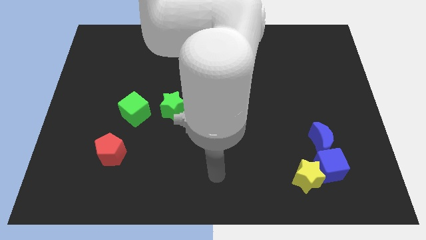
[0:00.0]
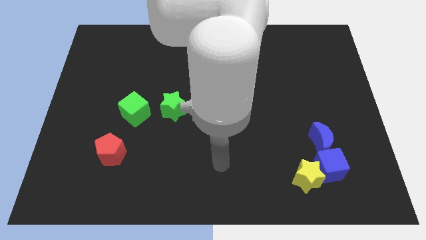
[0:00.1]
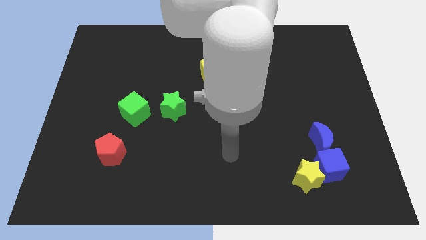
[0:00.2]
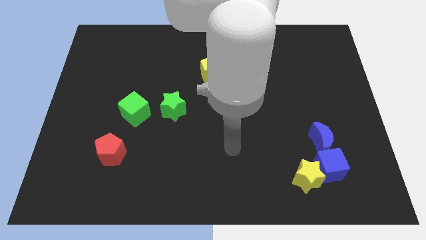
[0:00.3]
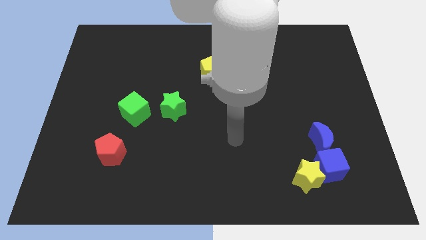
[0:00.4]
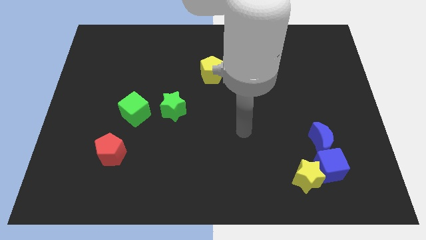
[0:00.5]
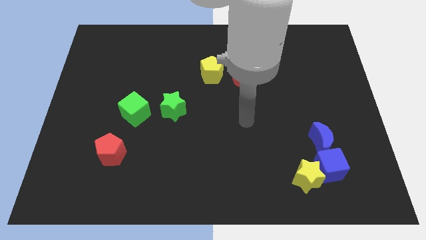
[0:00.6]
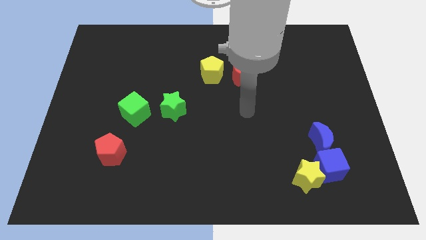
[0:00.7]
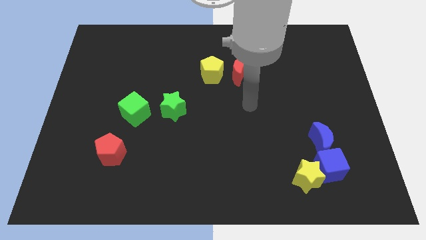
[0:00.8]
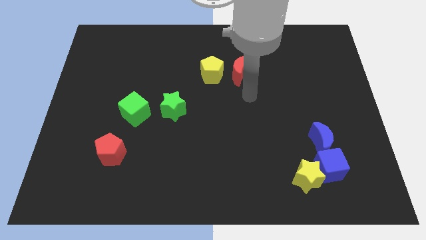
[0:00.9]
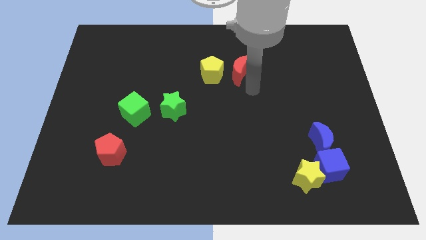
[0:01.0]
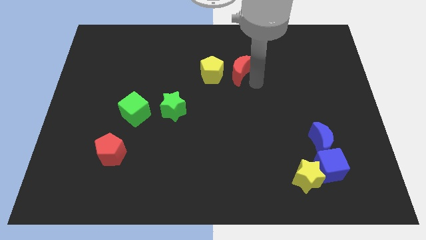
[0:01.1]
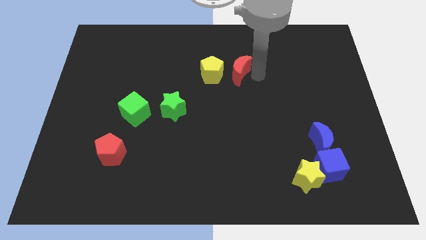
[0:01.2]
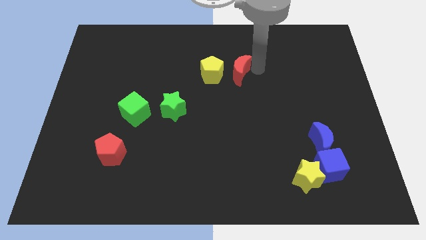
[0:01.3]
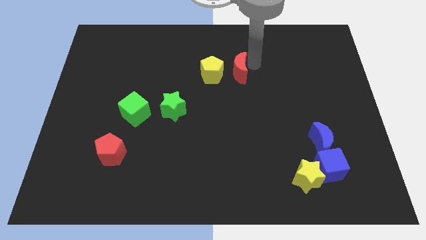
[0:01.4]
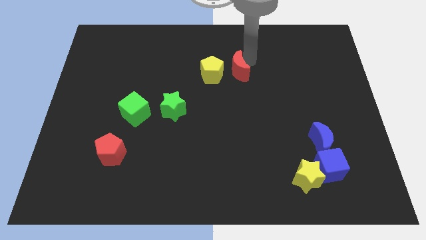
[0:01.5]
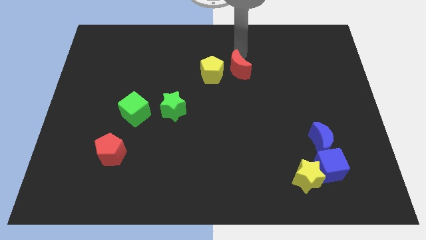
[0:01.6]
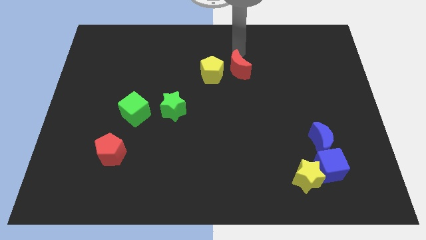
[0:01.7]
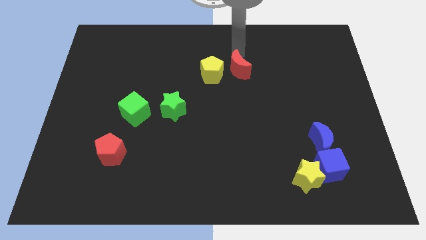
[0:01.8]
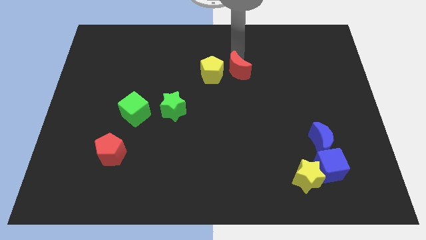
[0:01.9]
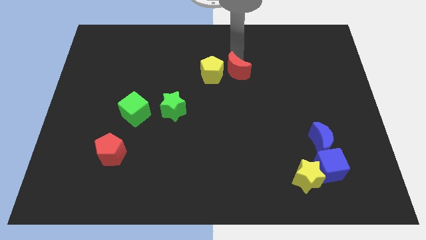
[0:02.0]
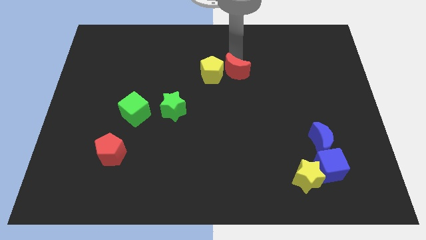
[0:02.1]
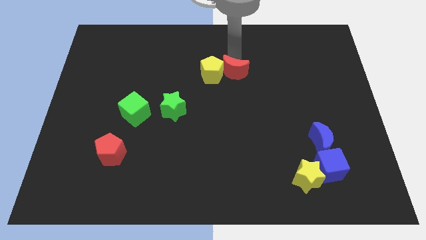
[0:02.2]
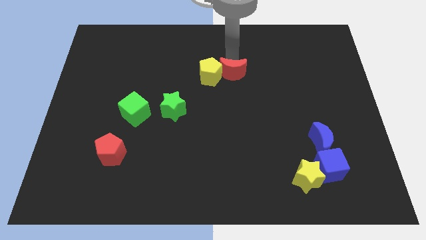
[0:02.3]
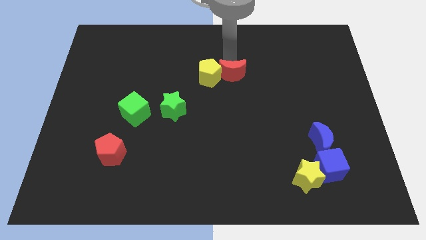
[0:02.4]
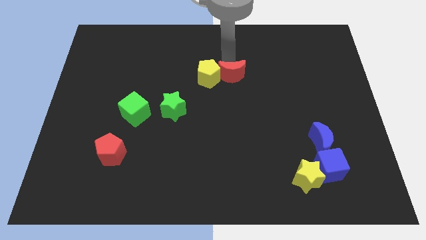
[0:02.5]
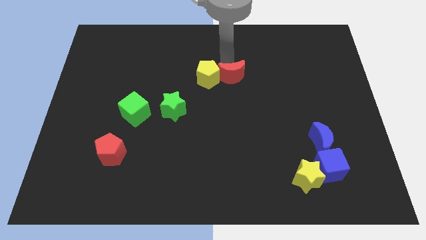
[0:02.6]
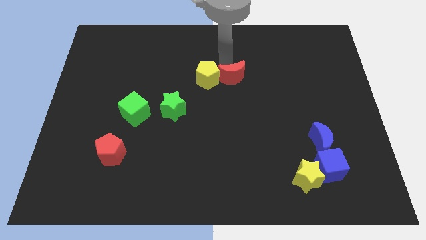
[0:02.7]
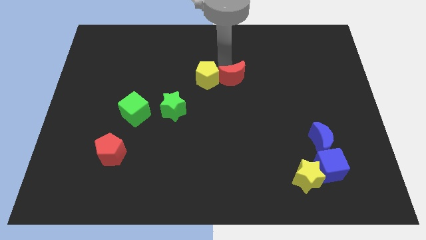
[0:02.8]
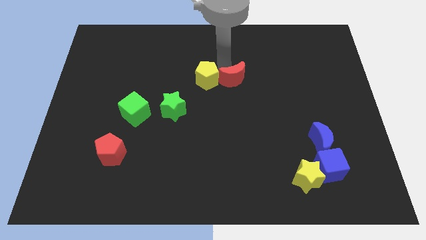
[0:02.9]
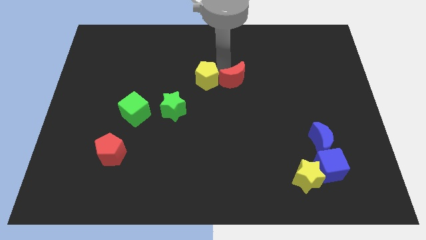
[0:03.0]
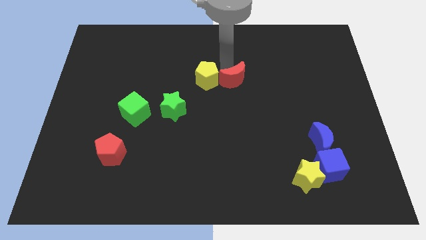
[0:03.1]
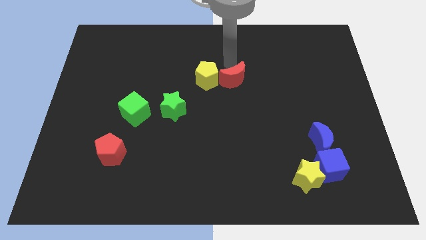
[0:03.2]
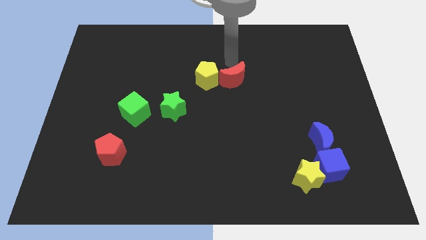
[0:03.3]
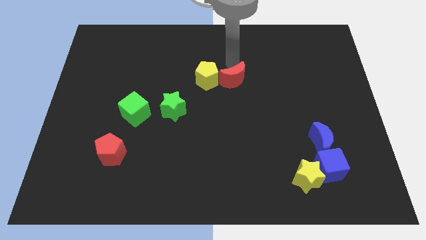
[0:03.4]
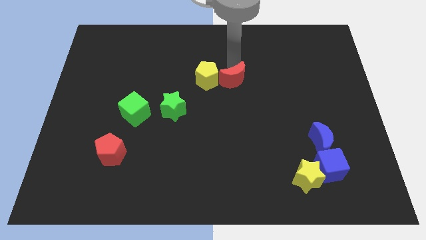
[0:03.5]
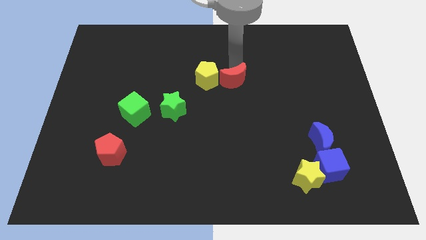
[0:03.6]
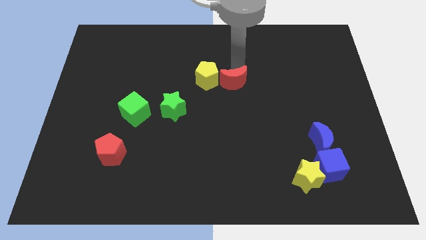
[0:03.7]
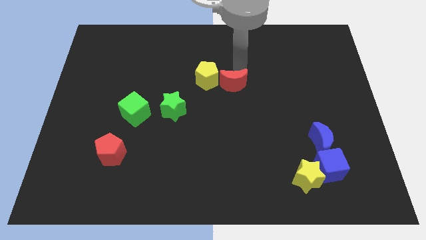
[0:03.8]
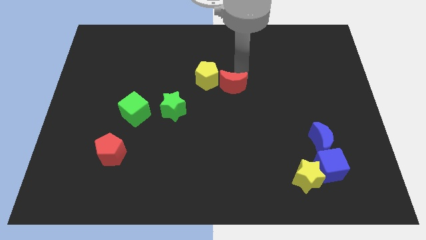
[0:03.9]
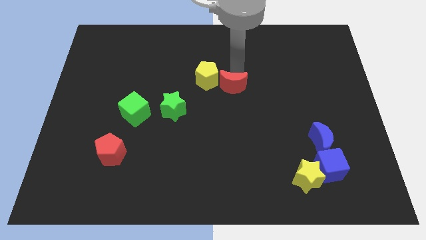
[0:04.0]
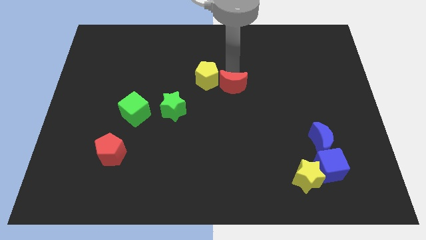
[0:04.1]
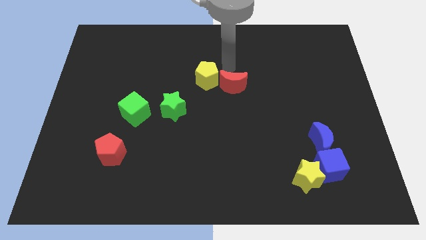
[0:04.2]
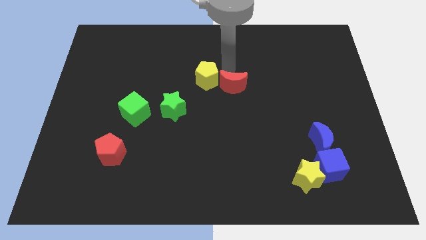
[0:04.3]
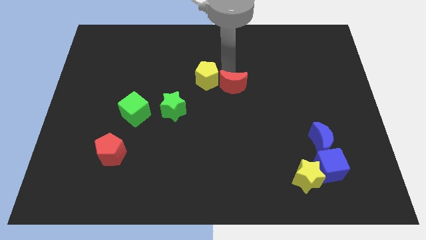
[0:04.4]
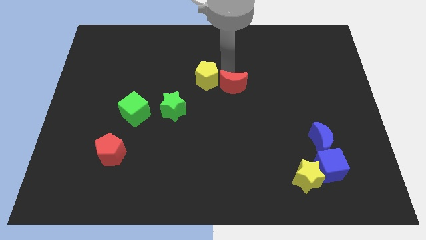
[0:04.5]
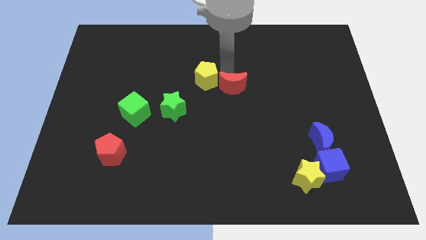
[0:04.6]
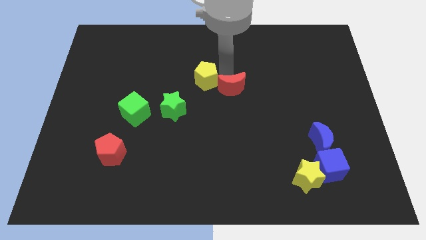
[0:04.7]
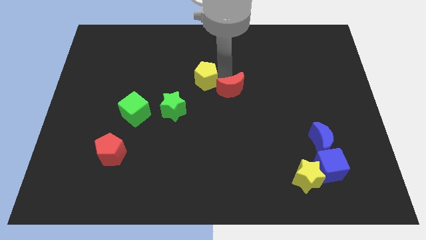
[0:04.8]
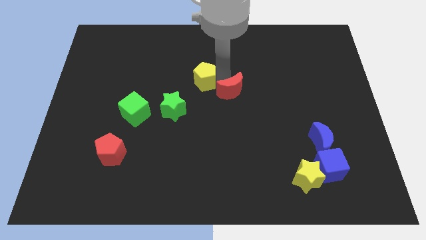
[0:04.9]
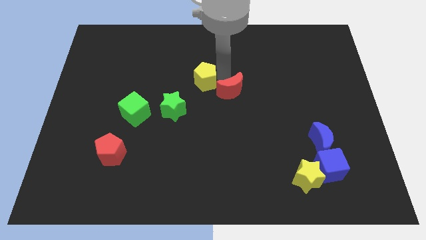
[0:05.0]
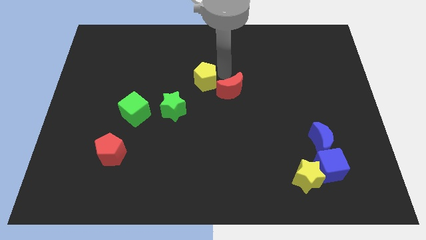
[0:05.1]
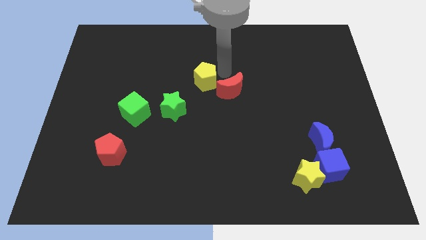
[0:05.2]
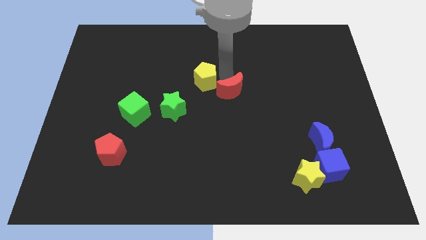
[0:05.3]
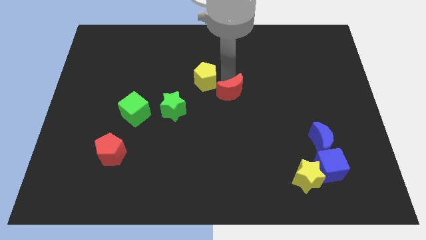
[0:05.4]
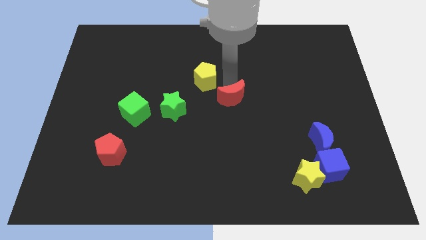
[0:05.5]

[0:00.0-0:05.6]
move the red moon a little bit downwards

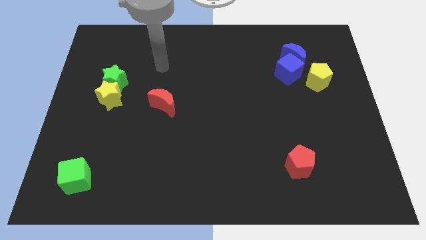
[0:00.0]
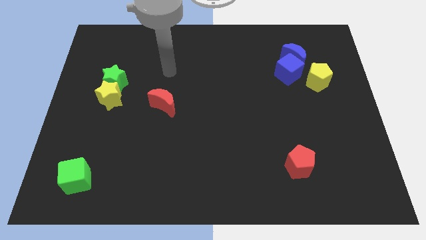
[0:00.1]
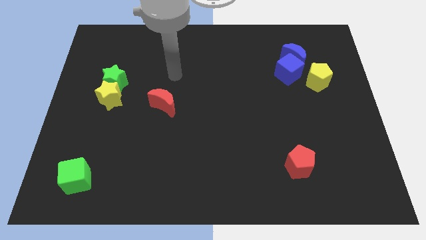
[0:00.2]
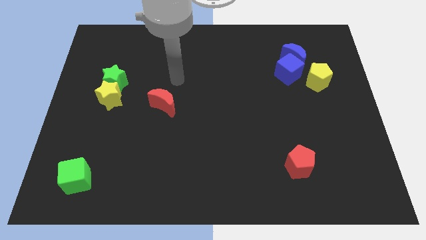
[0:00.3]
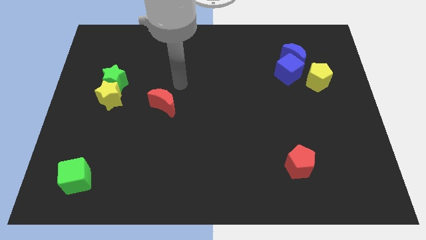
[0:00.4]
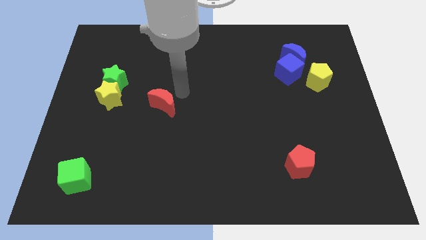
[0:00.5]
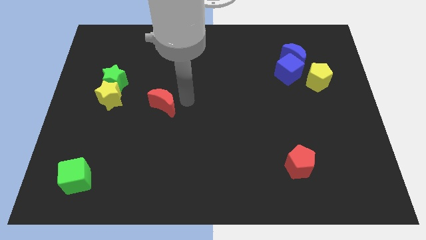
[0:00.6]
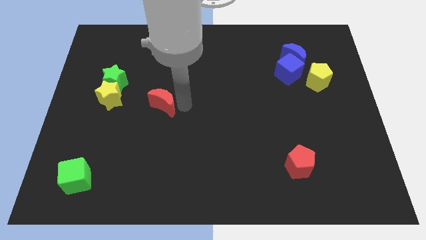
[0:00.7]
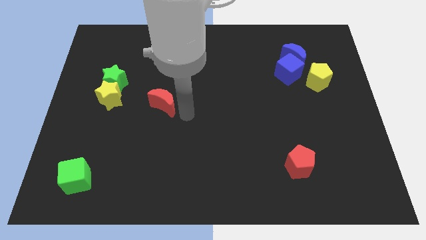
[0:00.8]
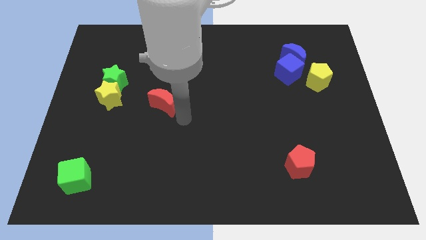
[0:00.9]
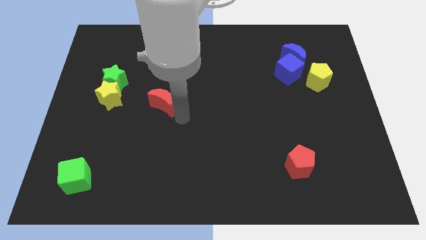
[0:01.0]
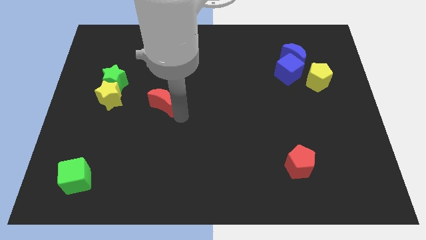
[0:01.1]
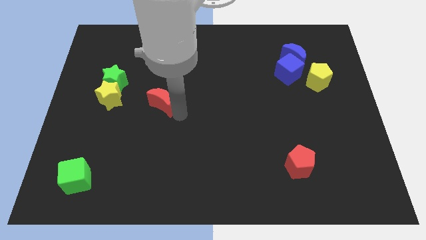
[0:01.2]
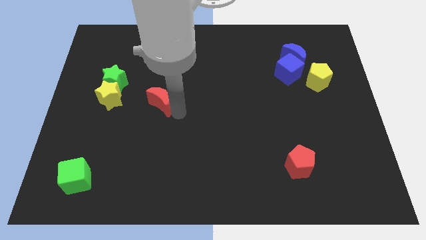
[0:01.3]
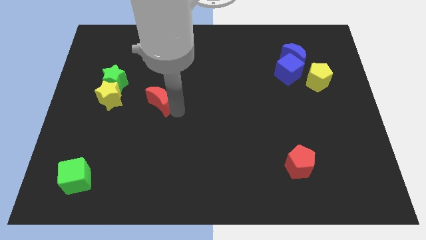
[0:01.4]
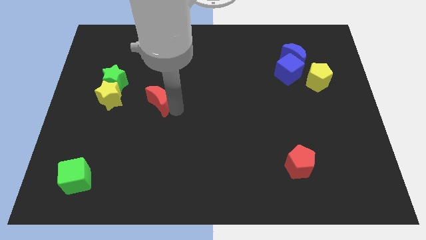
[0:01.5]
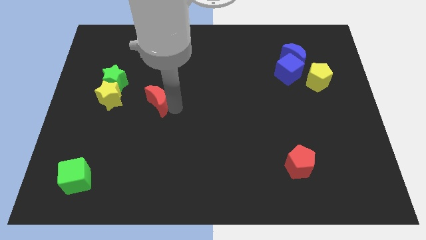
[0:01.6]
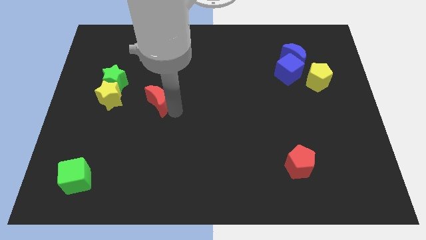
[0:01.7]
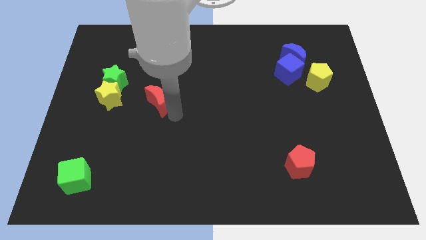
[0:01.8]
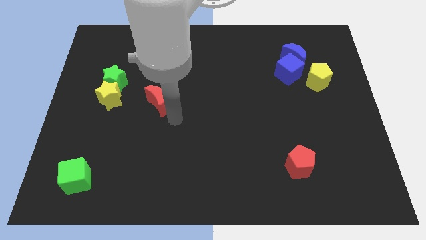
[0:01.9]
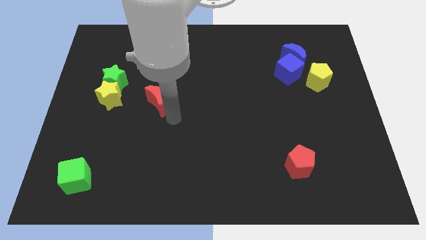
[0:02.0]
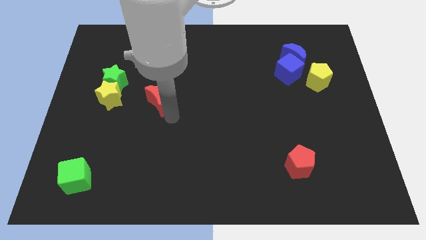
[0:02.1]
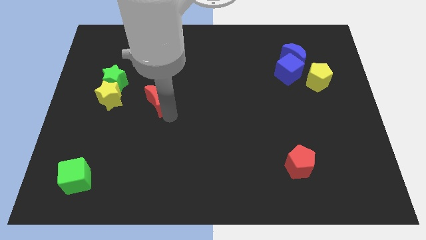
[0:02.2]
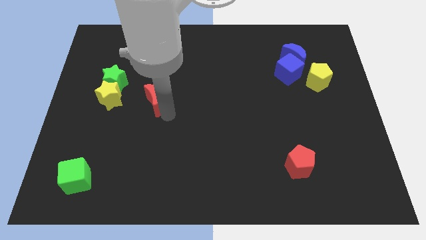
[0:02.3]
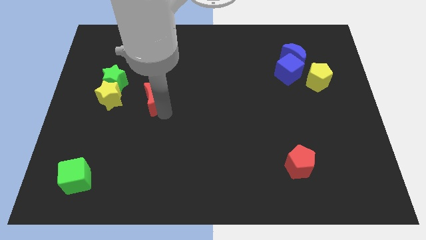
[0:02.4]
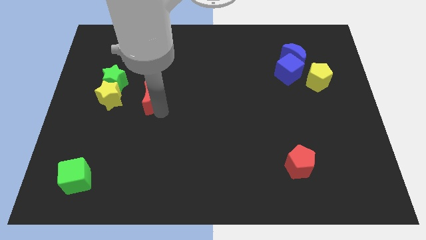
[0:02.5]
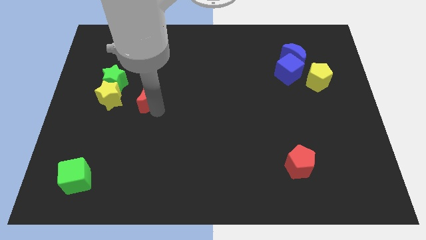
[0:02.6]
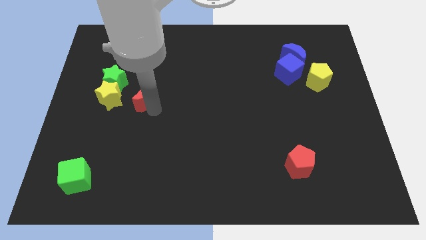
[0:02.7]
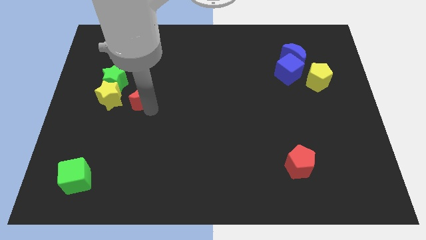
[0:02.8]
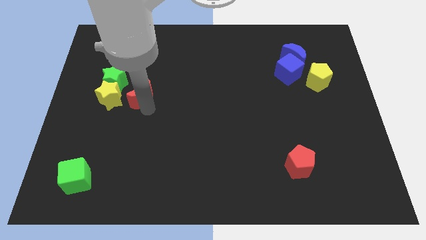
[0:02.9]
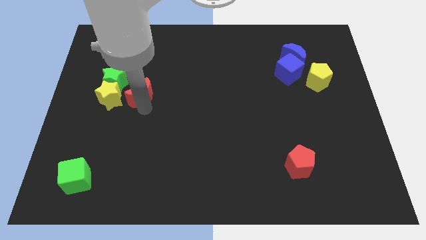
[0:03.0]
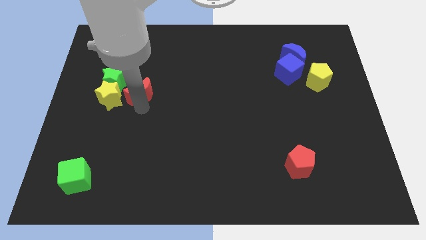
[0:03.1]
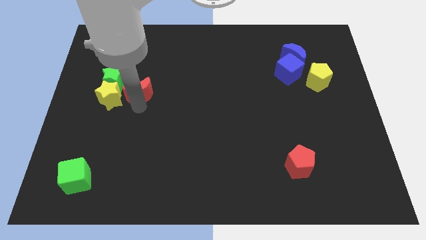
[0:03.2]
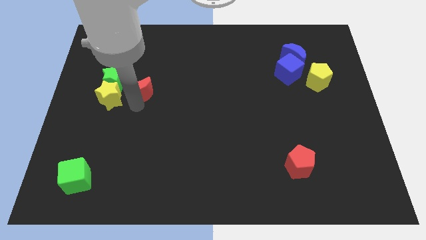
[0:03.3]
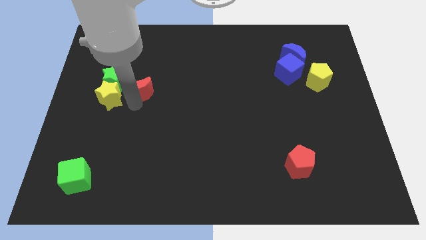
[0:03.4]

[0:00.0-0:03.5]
move the red moon upwards and to the left a little
